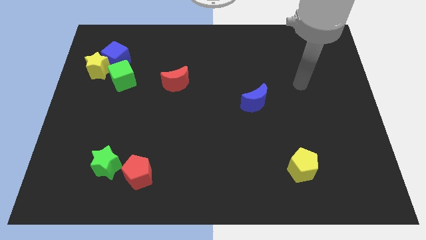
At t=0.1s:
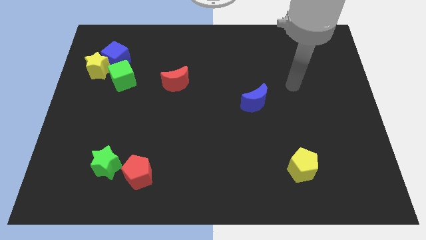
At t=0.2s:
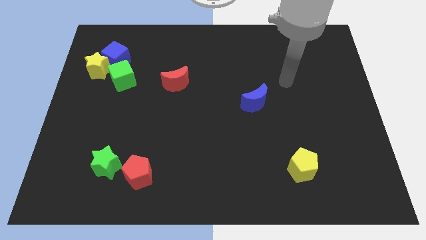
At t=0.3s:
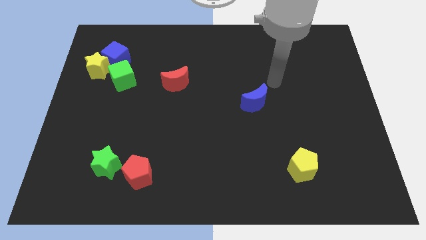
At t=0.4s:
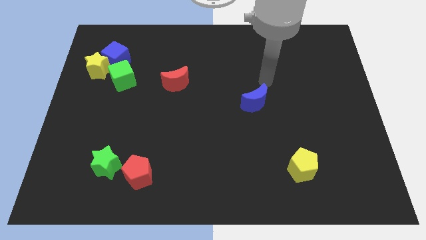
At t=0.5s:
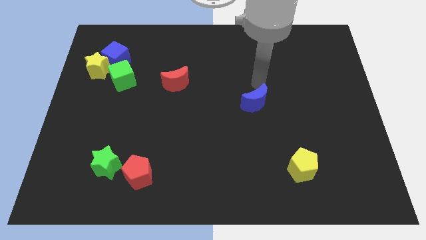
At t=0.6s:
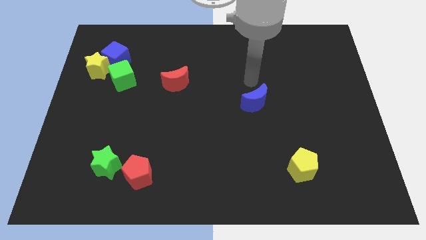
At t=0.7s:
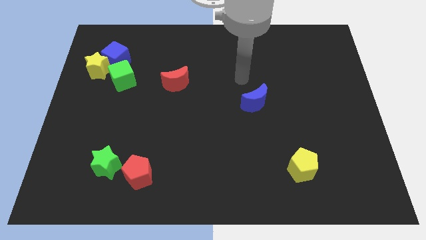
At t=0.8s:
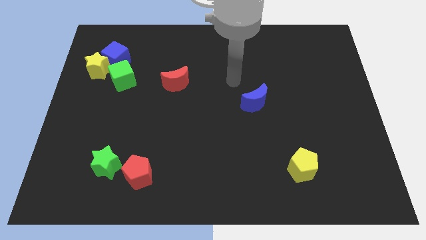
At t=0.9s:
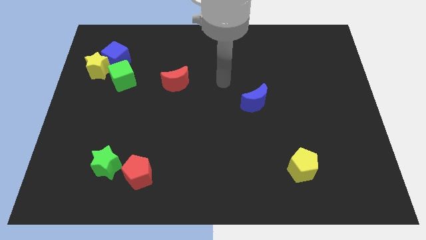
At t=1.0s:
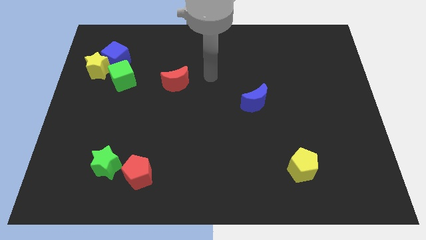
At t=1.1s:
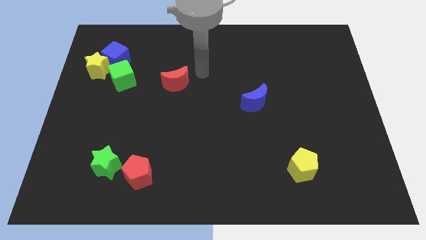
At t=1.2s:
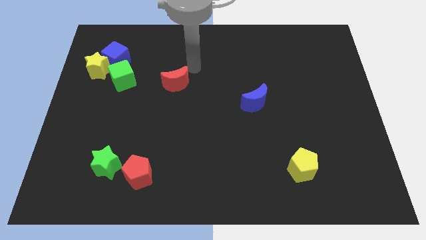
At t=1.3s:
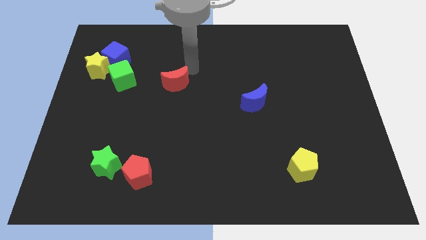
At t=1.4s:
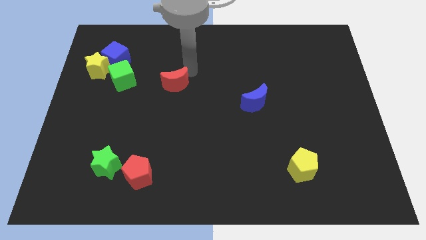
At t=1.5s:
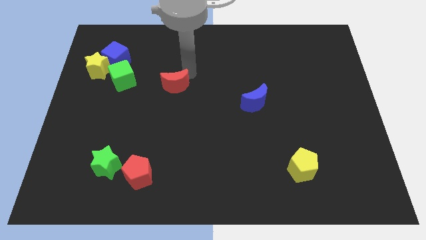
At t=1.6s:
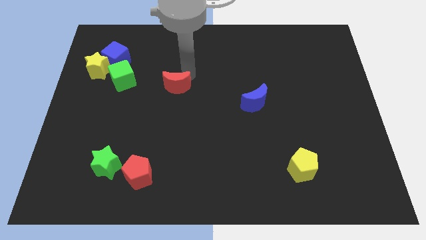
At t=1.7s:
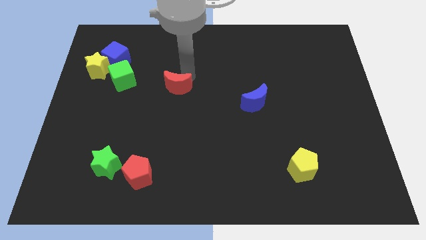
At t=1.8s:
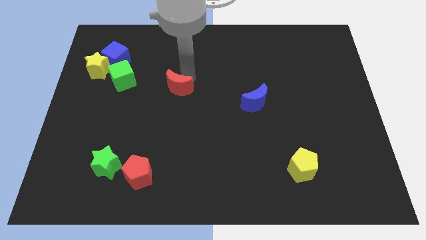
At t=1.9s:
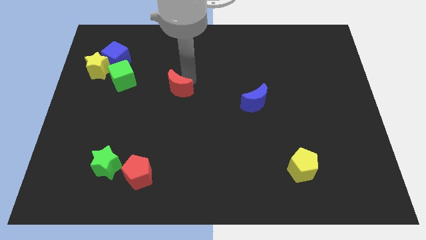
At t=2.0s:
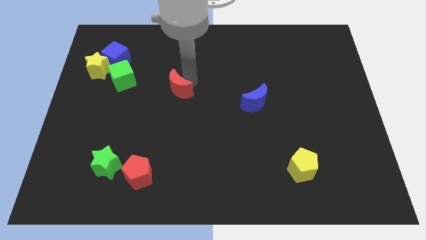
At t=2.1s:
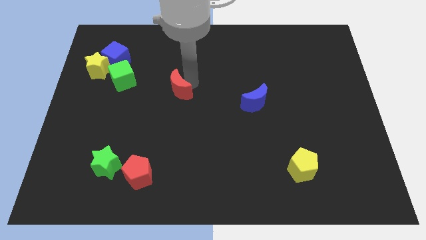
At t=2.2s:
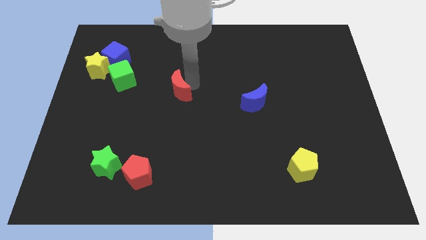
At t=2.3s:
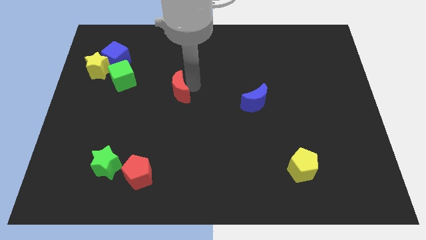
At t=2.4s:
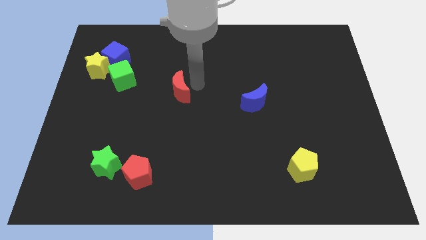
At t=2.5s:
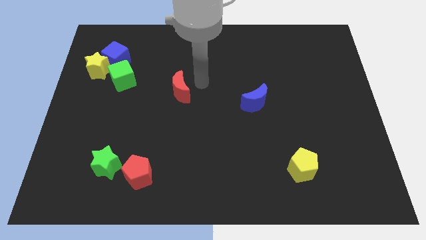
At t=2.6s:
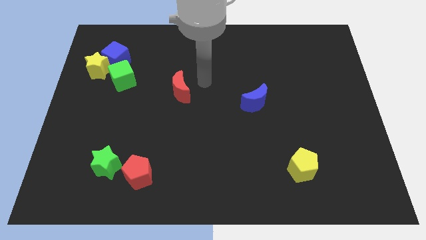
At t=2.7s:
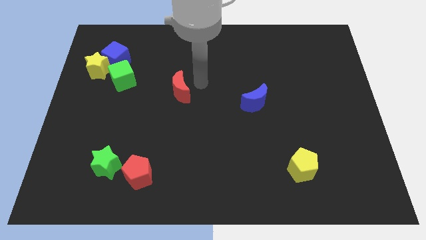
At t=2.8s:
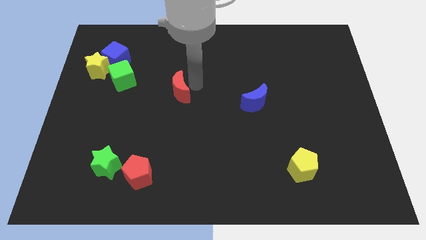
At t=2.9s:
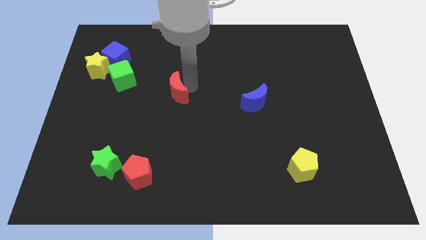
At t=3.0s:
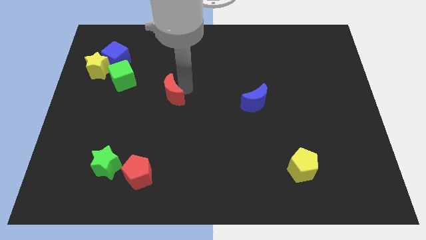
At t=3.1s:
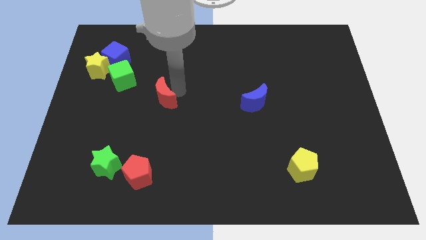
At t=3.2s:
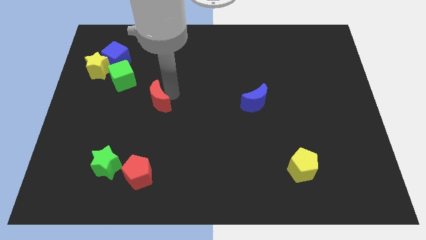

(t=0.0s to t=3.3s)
slide the red moon somewhat downwards and to the left

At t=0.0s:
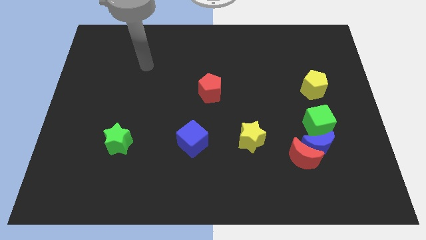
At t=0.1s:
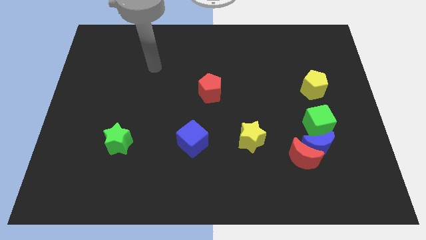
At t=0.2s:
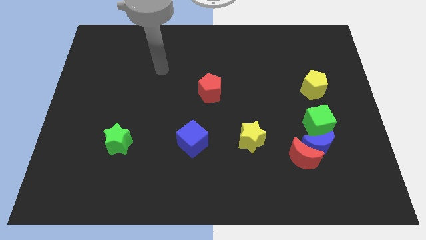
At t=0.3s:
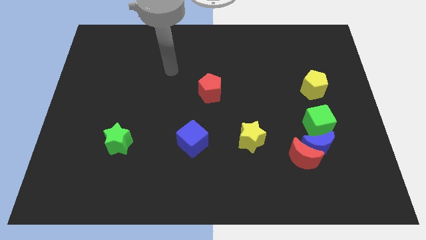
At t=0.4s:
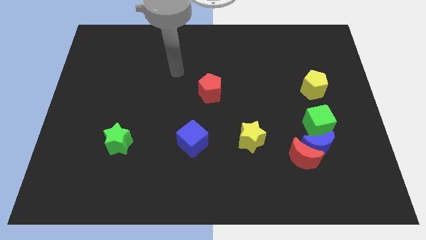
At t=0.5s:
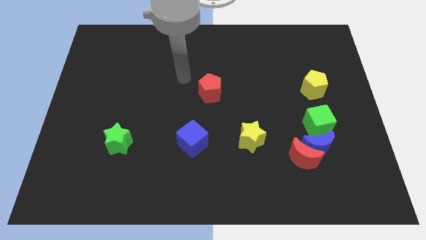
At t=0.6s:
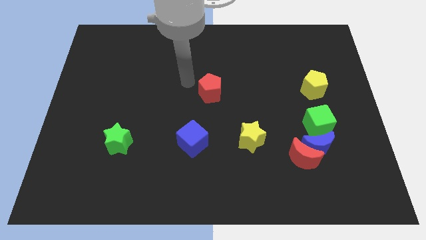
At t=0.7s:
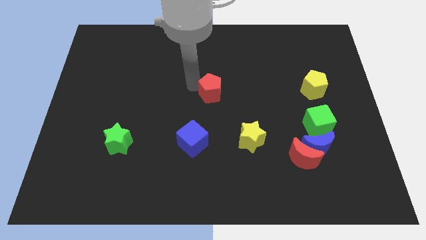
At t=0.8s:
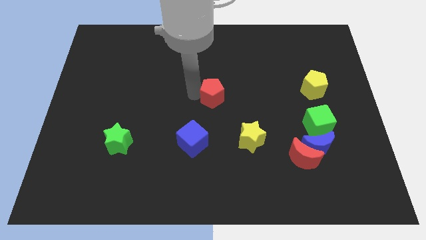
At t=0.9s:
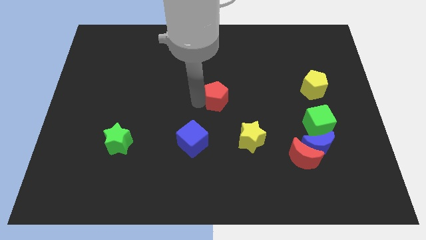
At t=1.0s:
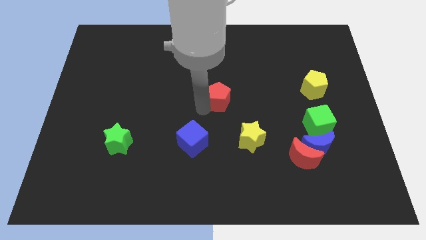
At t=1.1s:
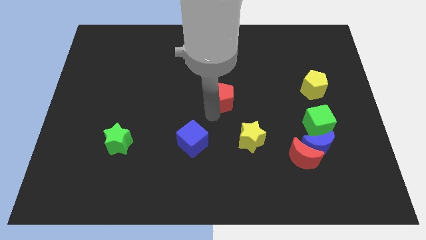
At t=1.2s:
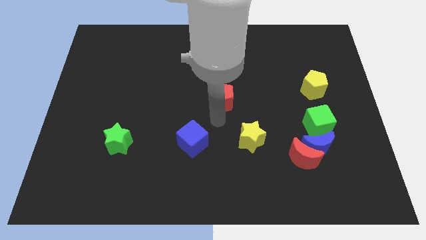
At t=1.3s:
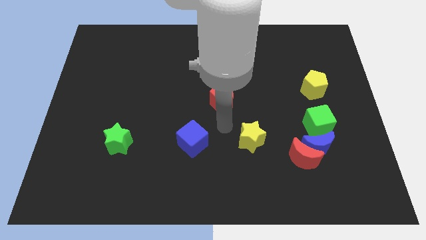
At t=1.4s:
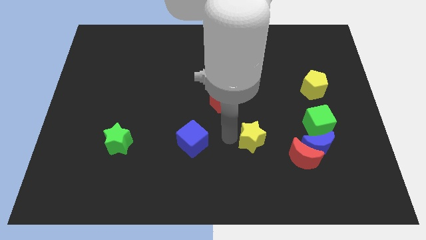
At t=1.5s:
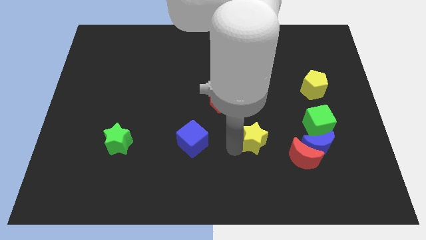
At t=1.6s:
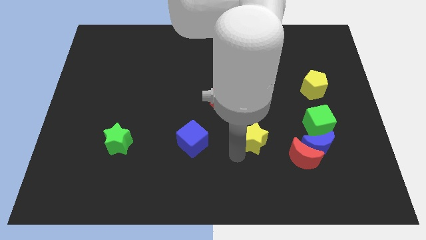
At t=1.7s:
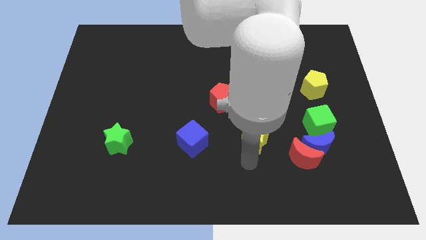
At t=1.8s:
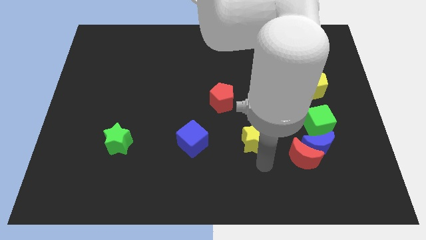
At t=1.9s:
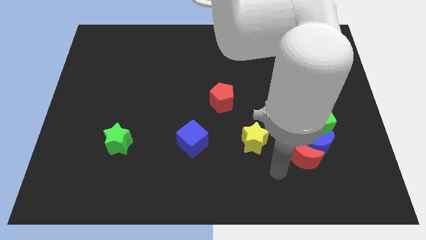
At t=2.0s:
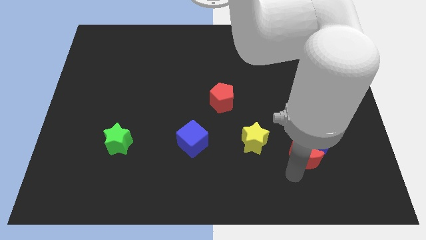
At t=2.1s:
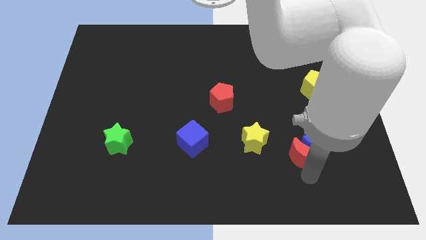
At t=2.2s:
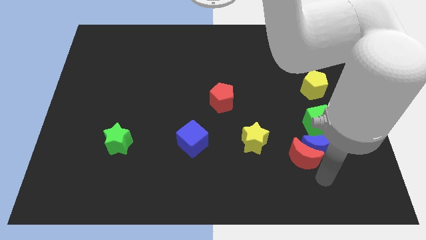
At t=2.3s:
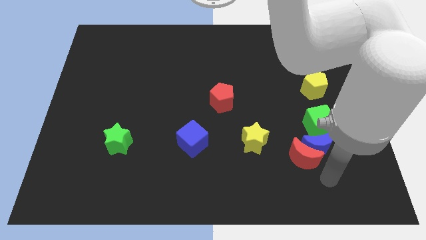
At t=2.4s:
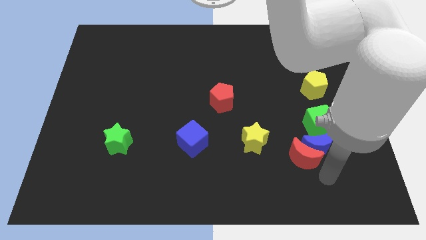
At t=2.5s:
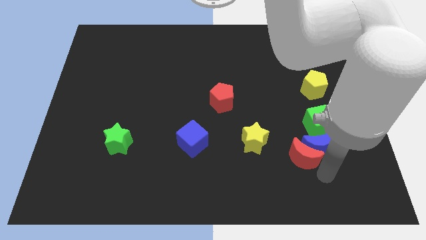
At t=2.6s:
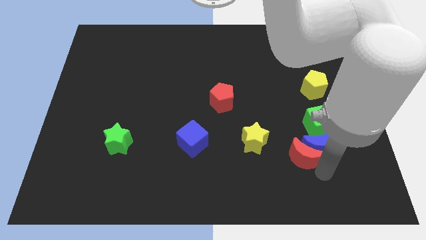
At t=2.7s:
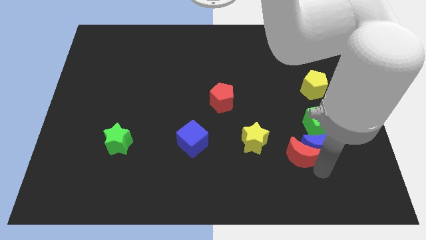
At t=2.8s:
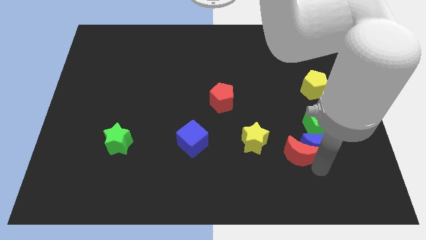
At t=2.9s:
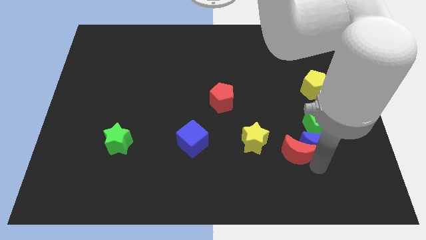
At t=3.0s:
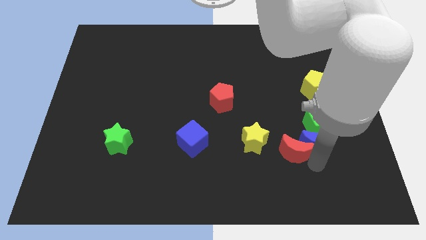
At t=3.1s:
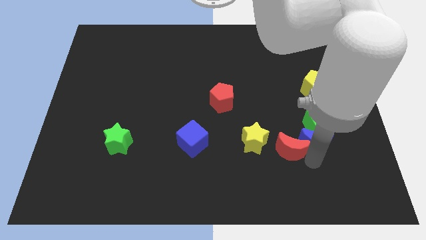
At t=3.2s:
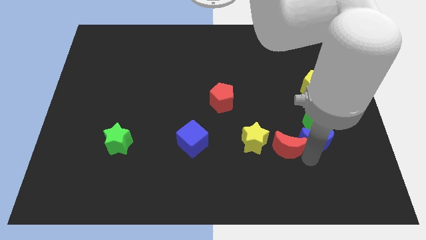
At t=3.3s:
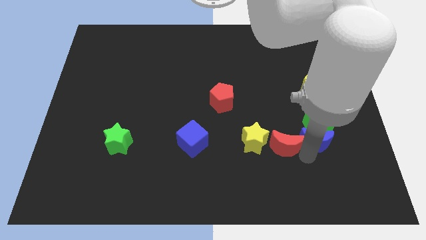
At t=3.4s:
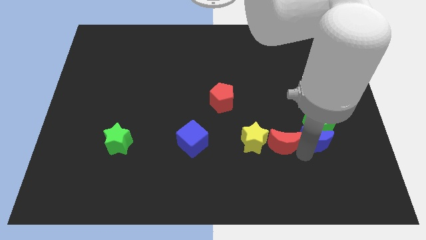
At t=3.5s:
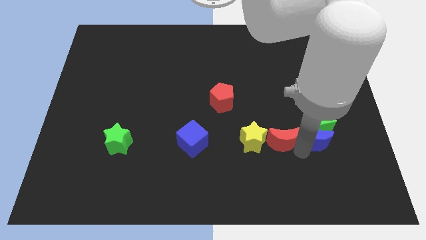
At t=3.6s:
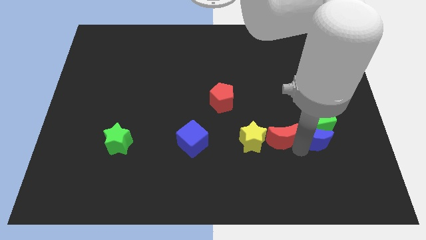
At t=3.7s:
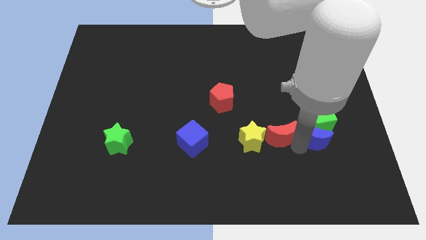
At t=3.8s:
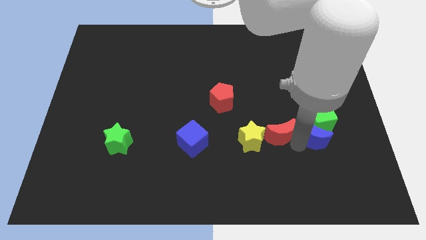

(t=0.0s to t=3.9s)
move the red moon a little bit upwards and left

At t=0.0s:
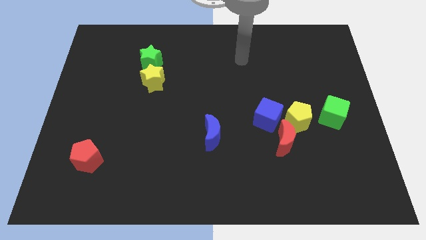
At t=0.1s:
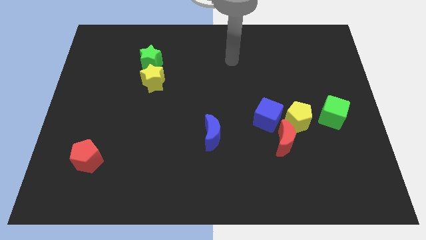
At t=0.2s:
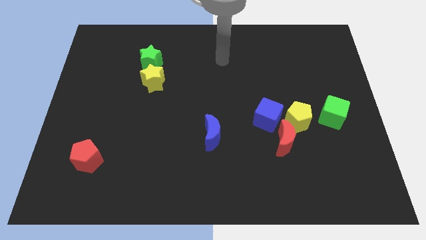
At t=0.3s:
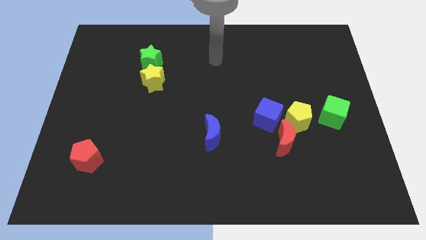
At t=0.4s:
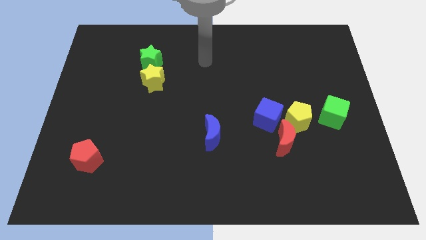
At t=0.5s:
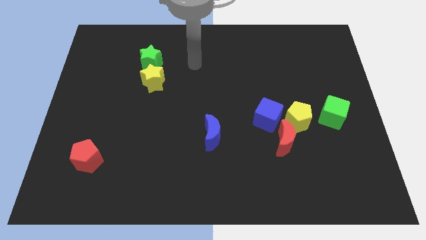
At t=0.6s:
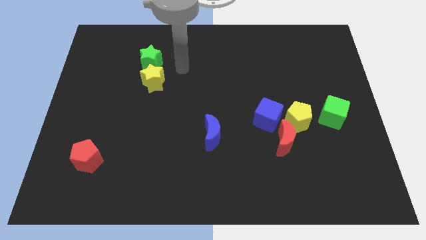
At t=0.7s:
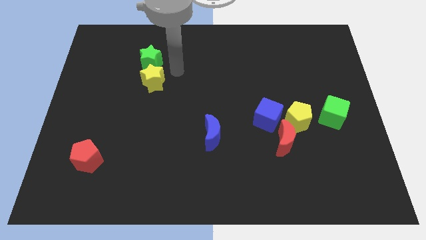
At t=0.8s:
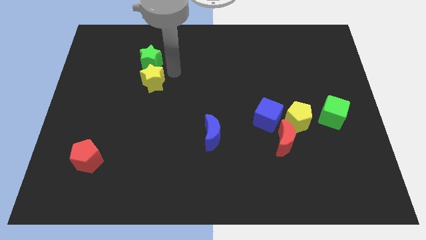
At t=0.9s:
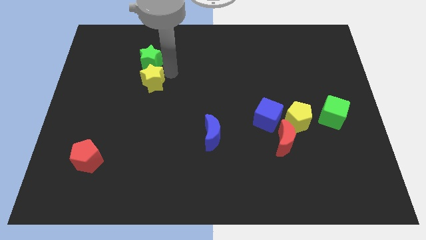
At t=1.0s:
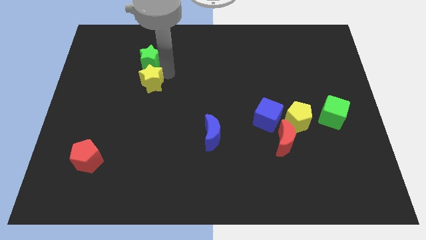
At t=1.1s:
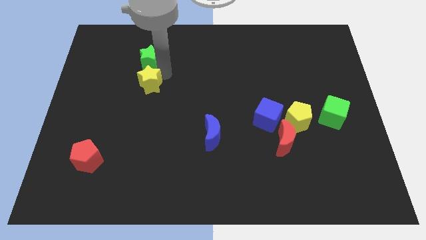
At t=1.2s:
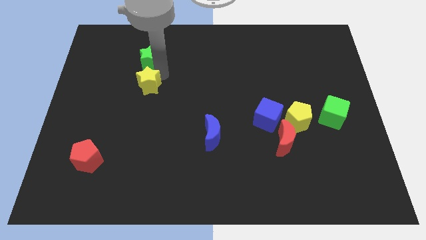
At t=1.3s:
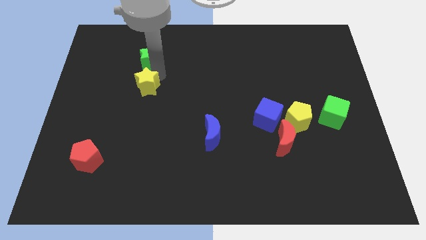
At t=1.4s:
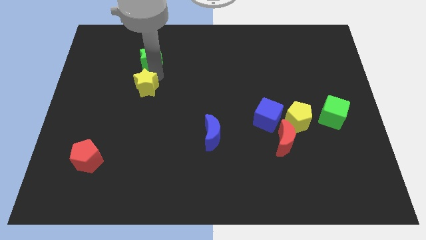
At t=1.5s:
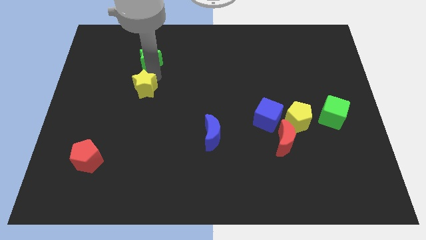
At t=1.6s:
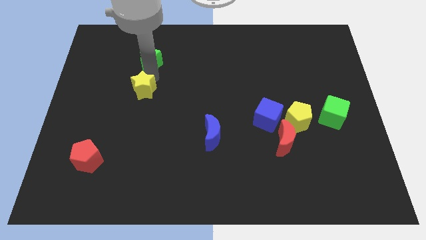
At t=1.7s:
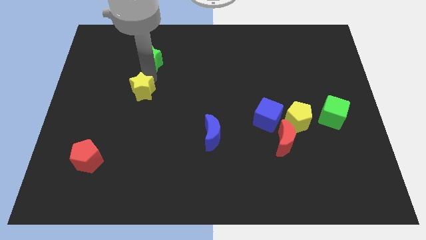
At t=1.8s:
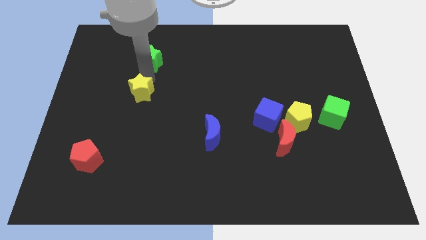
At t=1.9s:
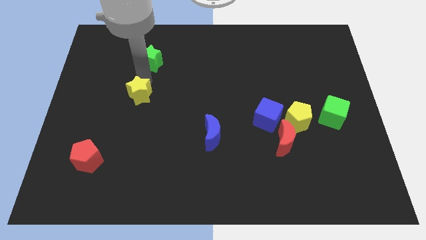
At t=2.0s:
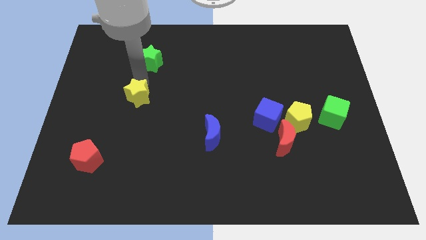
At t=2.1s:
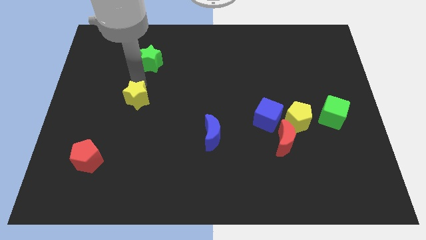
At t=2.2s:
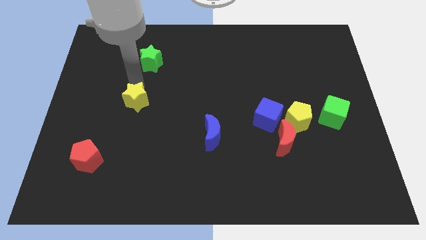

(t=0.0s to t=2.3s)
push the yellow star a bit downwards and to the left diagonally
